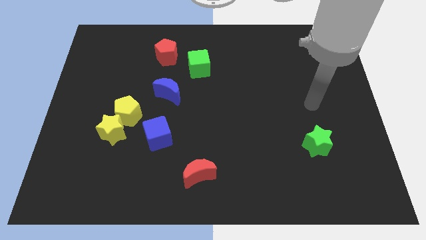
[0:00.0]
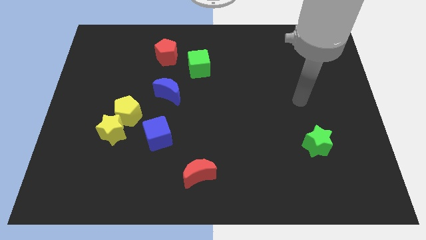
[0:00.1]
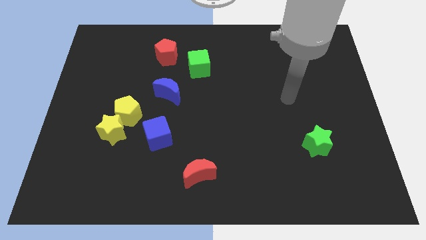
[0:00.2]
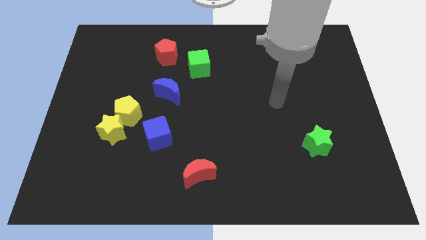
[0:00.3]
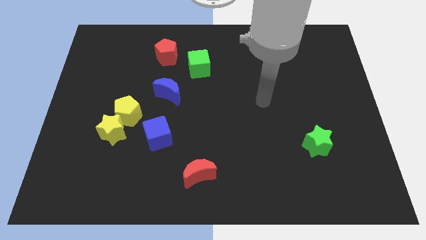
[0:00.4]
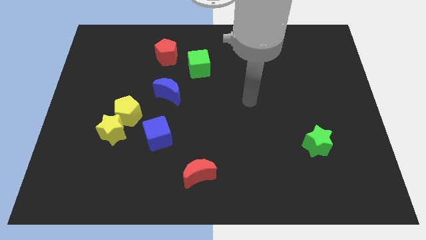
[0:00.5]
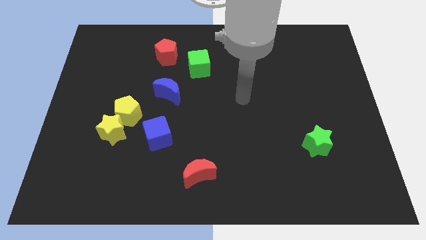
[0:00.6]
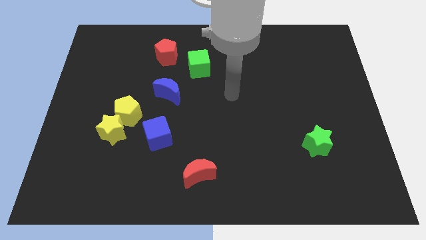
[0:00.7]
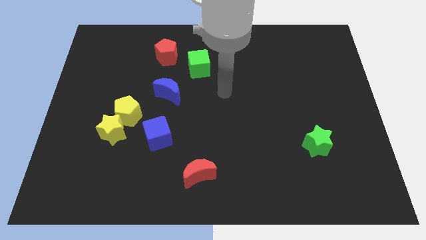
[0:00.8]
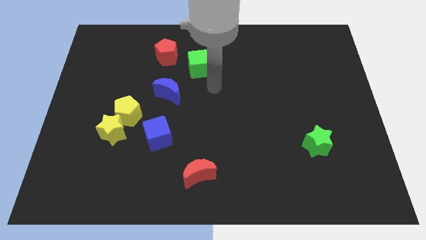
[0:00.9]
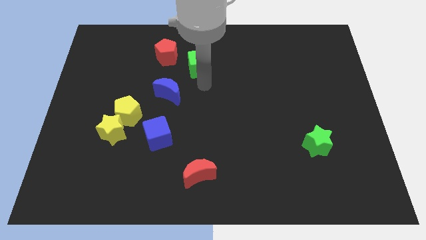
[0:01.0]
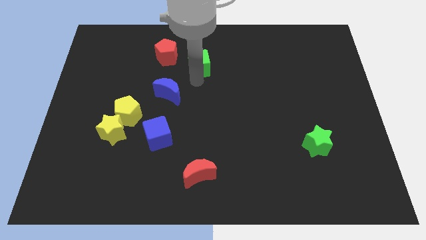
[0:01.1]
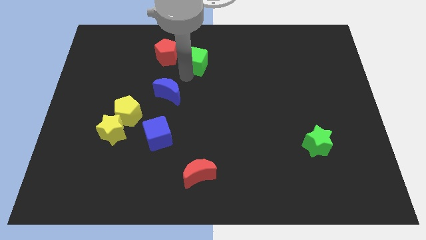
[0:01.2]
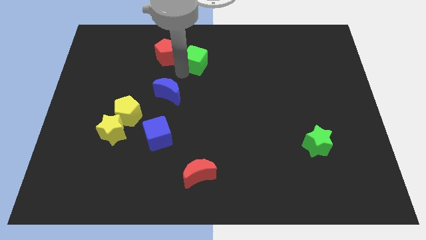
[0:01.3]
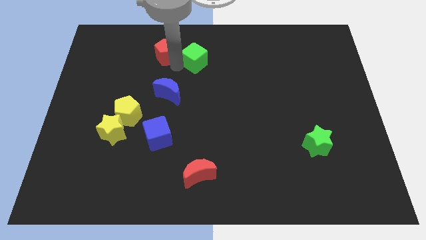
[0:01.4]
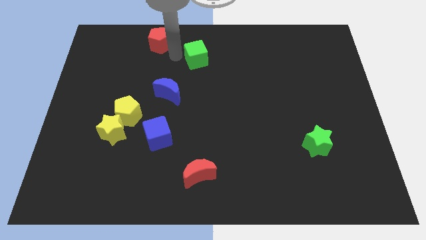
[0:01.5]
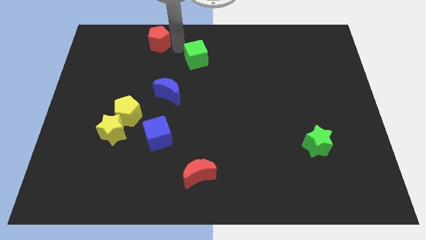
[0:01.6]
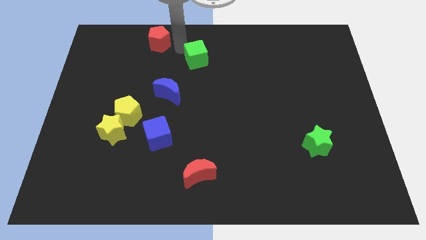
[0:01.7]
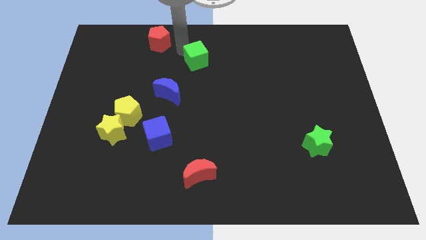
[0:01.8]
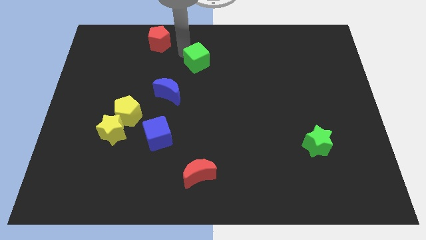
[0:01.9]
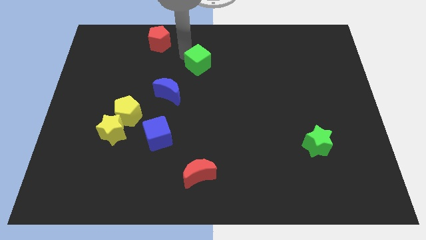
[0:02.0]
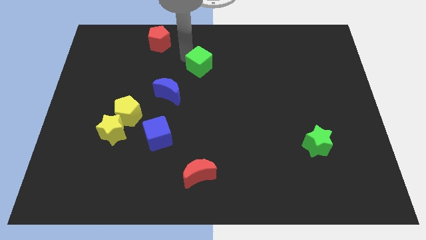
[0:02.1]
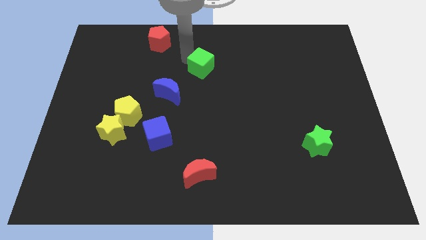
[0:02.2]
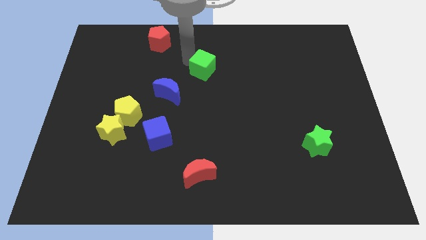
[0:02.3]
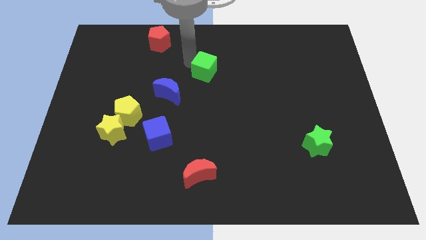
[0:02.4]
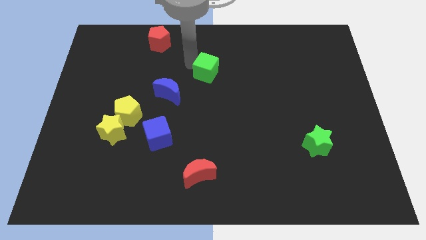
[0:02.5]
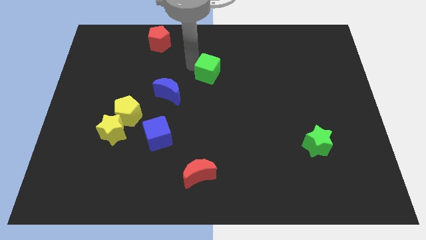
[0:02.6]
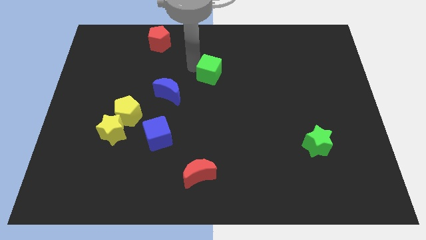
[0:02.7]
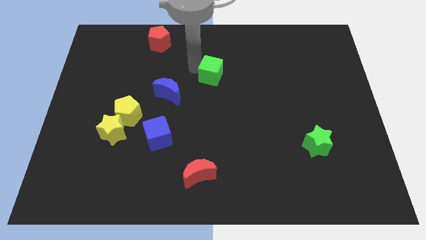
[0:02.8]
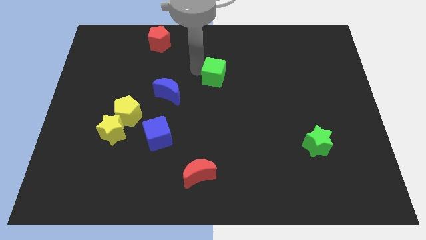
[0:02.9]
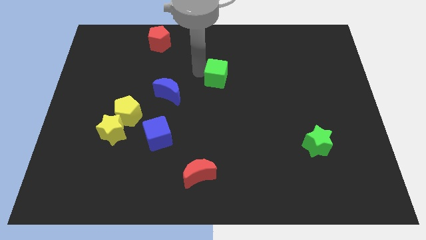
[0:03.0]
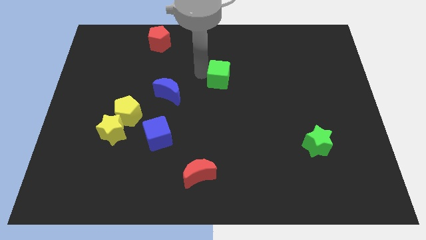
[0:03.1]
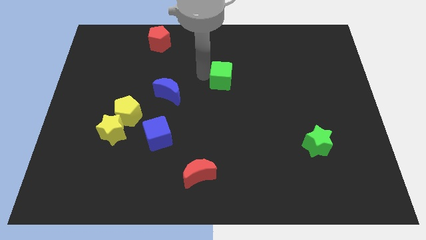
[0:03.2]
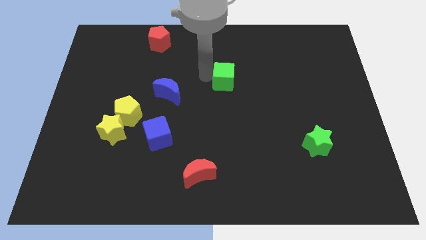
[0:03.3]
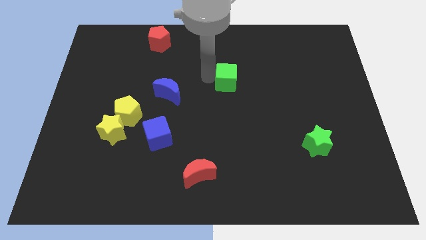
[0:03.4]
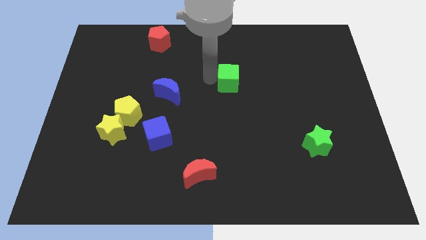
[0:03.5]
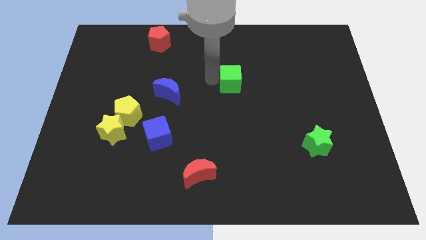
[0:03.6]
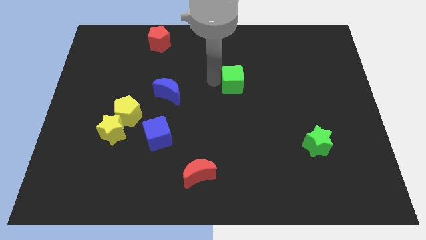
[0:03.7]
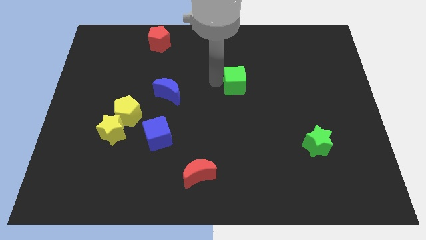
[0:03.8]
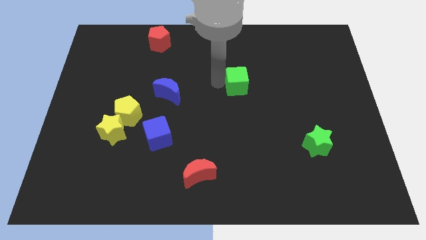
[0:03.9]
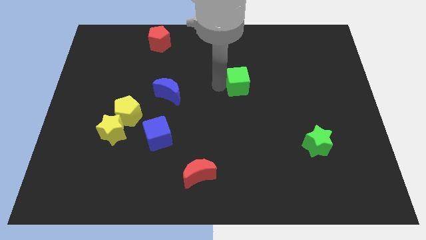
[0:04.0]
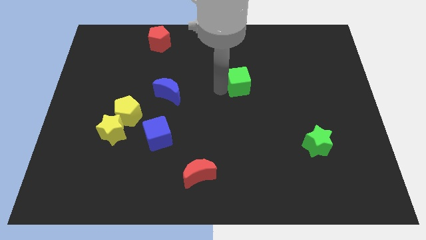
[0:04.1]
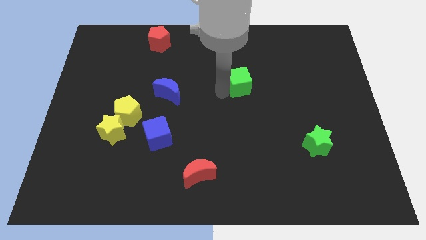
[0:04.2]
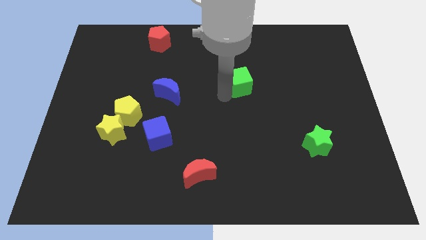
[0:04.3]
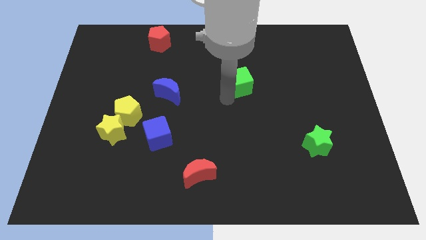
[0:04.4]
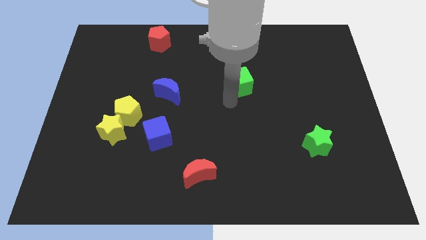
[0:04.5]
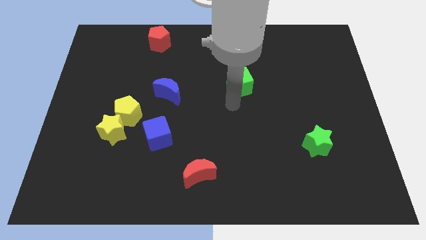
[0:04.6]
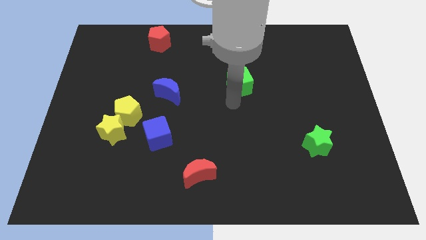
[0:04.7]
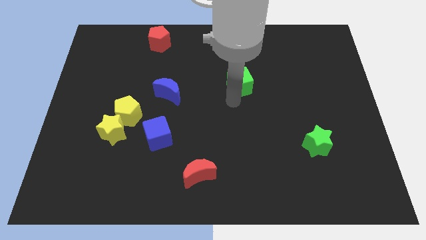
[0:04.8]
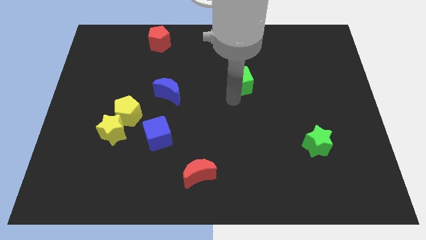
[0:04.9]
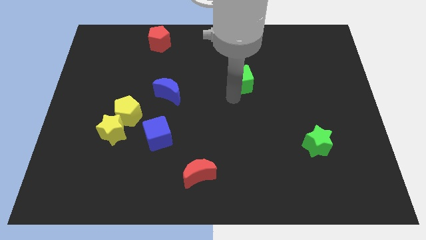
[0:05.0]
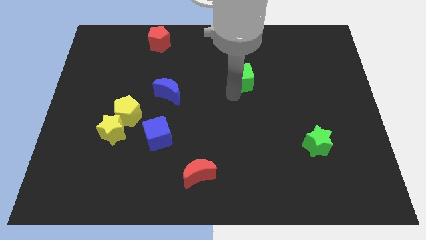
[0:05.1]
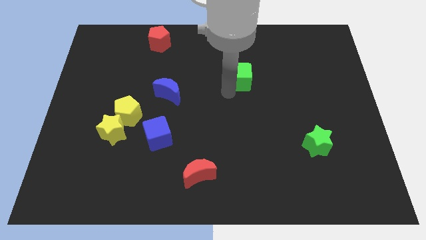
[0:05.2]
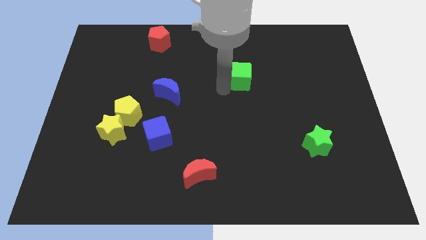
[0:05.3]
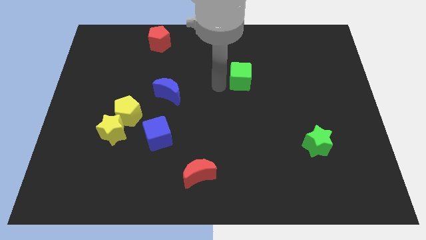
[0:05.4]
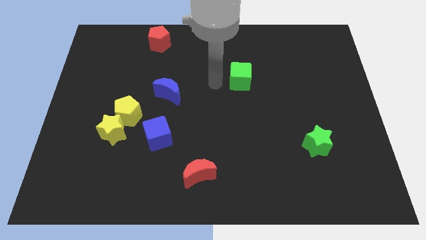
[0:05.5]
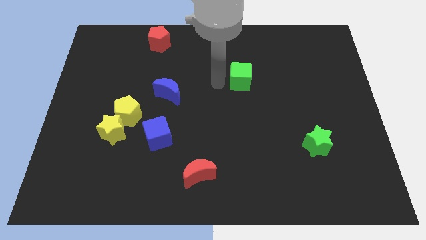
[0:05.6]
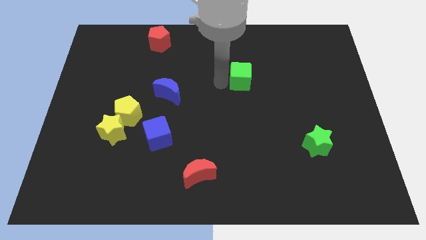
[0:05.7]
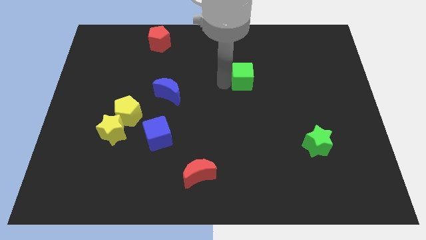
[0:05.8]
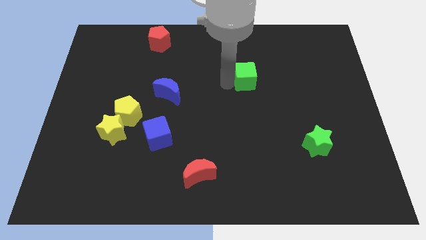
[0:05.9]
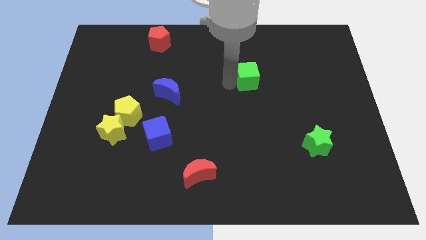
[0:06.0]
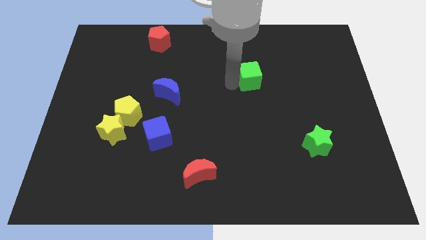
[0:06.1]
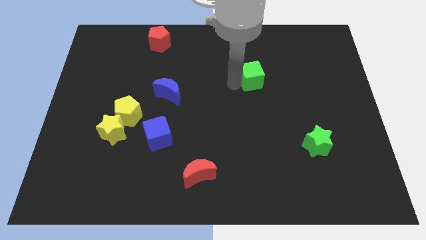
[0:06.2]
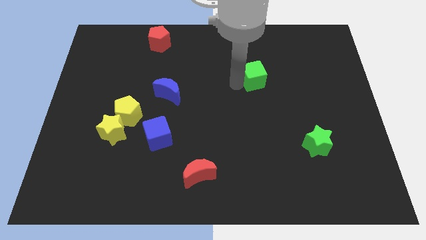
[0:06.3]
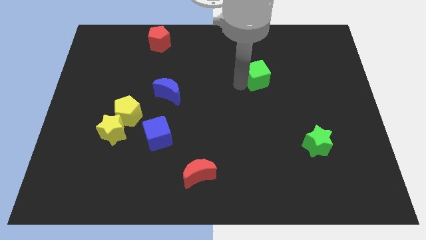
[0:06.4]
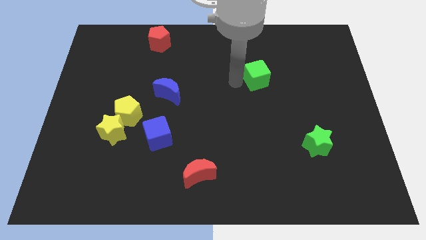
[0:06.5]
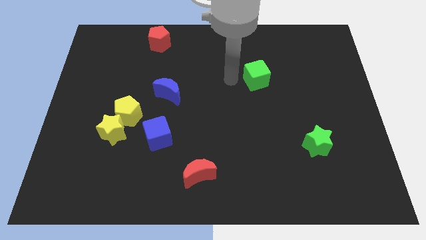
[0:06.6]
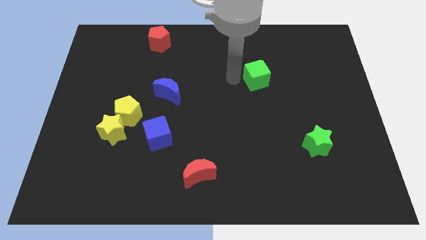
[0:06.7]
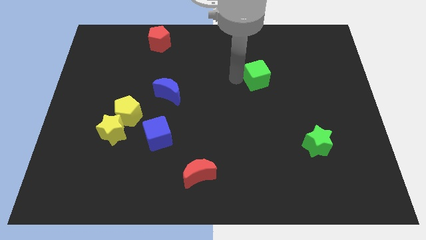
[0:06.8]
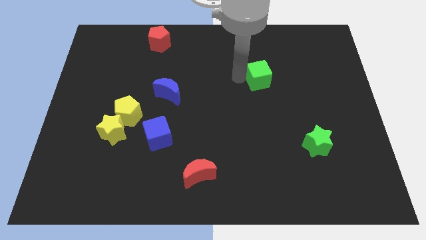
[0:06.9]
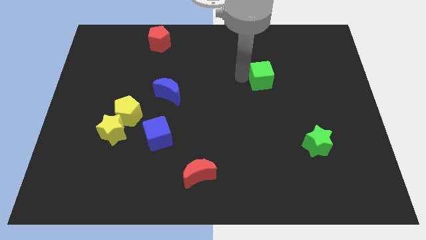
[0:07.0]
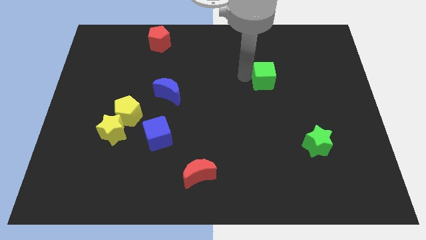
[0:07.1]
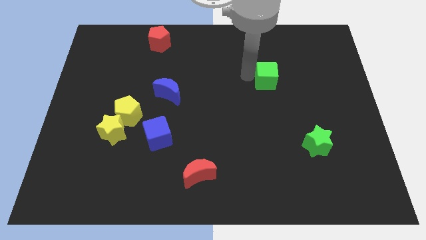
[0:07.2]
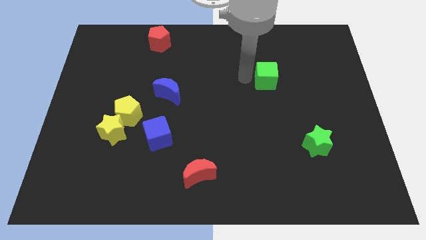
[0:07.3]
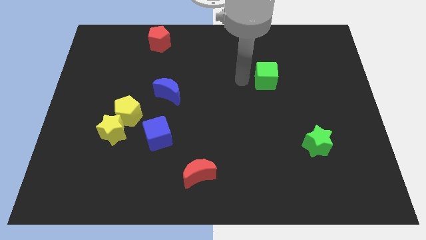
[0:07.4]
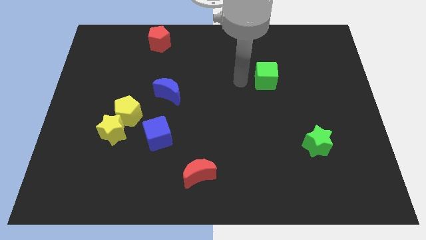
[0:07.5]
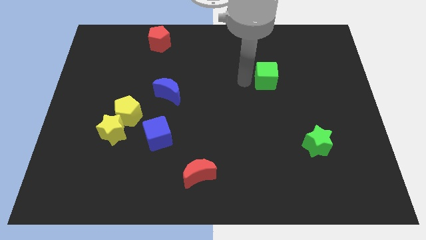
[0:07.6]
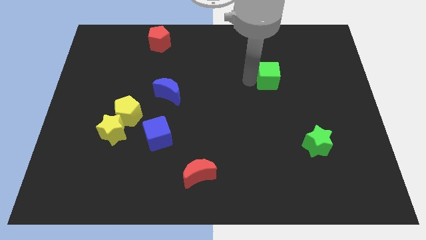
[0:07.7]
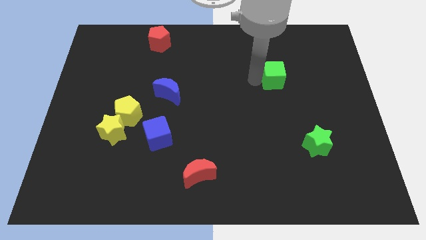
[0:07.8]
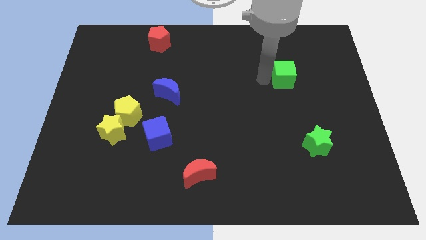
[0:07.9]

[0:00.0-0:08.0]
push the green cube to the right
